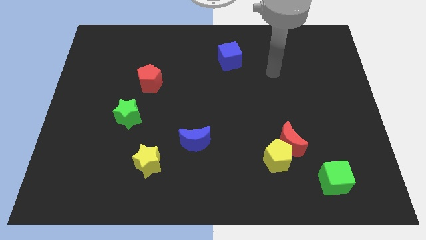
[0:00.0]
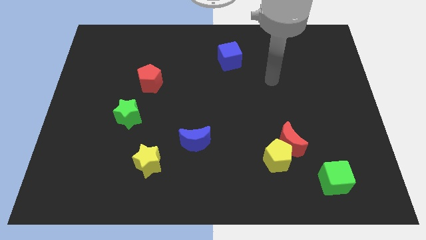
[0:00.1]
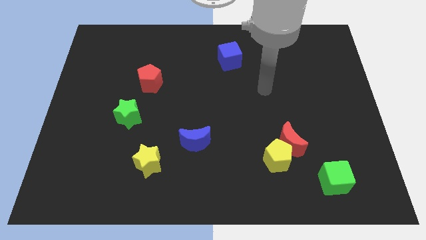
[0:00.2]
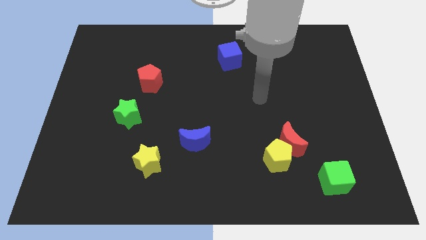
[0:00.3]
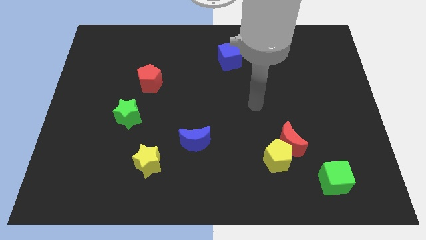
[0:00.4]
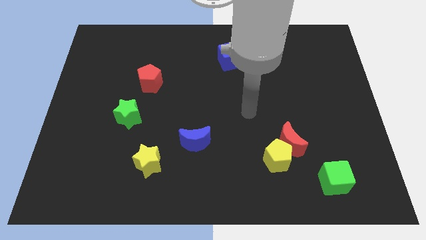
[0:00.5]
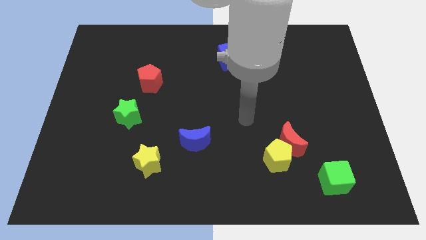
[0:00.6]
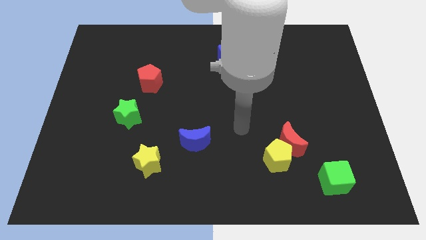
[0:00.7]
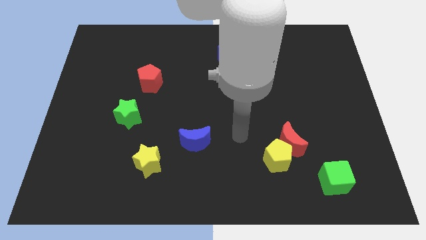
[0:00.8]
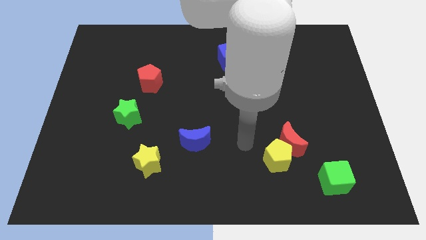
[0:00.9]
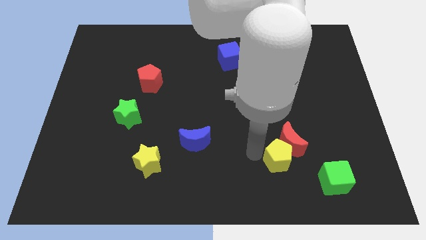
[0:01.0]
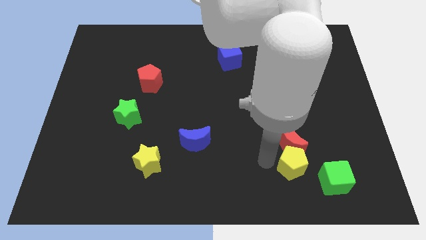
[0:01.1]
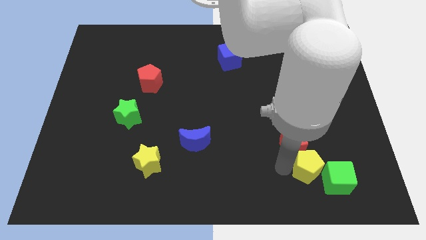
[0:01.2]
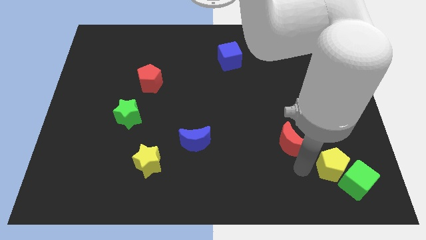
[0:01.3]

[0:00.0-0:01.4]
move the red moon away from the yellow pentagon

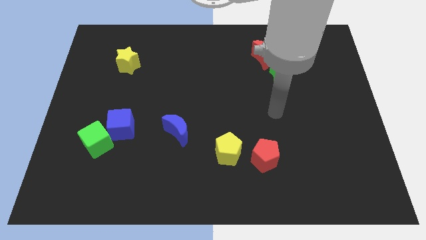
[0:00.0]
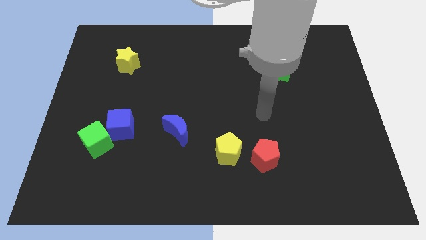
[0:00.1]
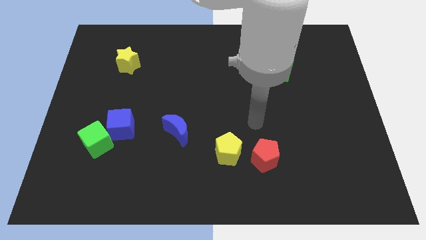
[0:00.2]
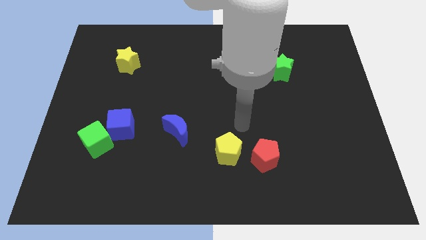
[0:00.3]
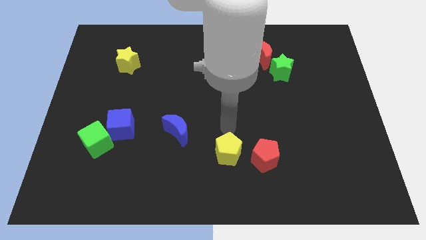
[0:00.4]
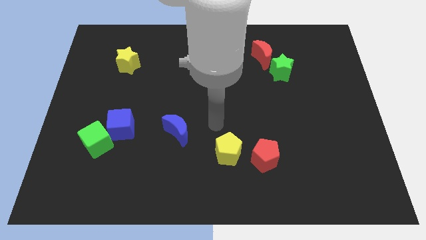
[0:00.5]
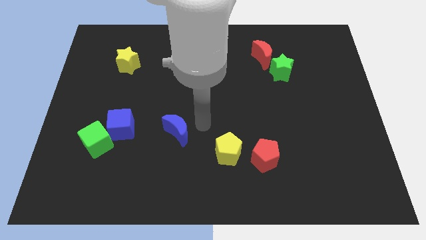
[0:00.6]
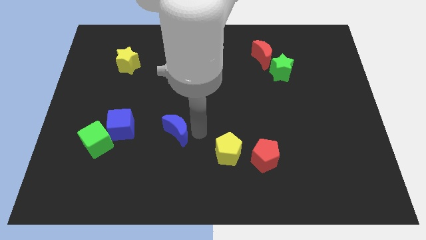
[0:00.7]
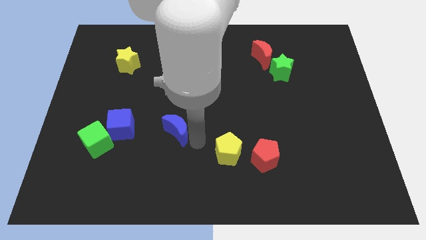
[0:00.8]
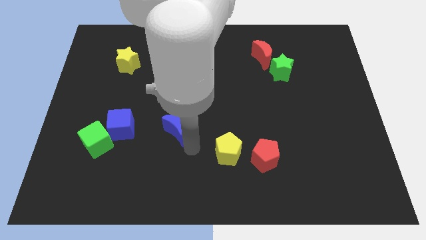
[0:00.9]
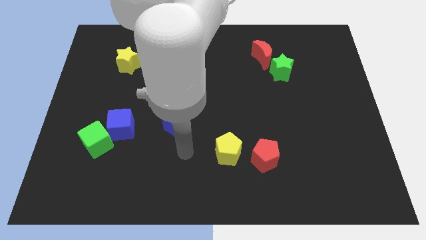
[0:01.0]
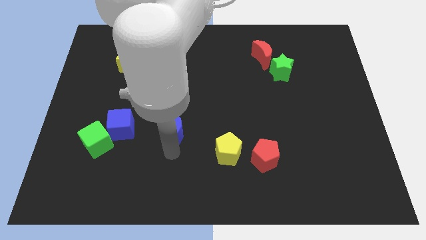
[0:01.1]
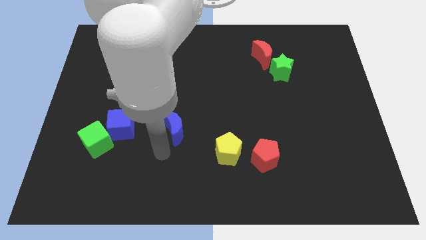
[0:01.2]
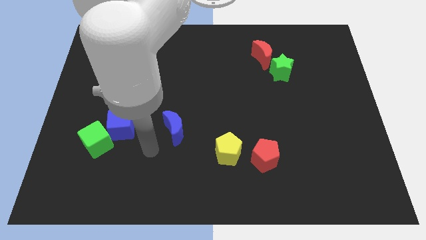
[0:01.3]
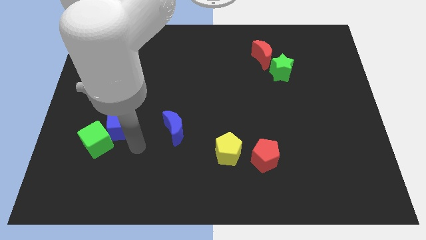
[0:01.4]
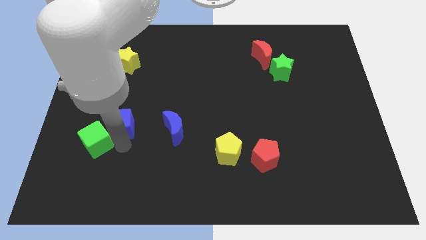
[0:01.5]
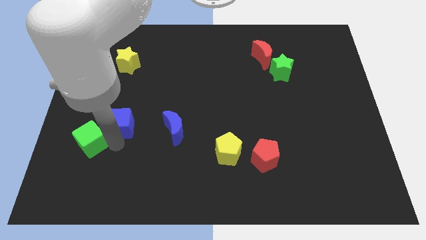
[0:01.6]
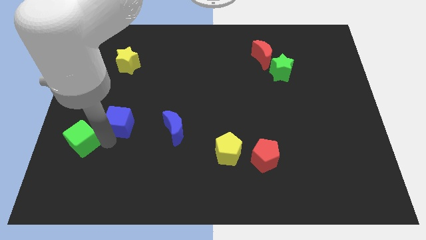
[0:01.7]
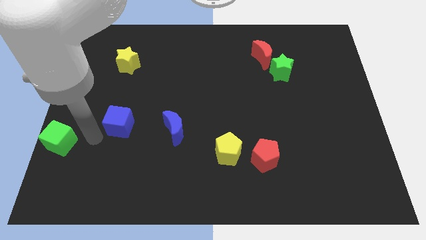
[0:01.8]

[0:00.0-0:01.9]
pull the blue cube apart from the green cube

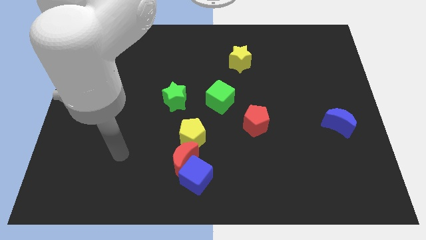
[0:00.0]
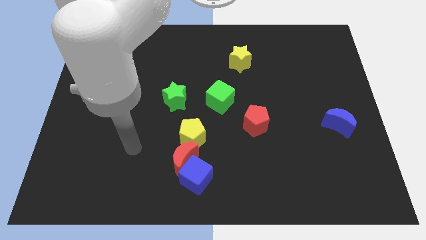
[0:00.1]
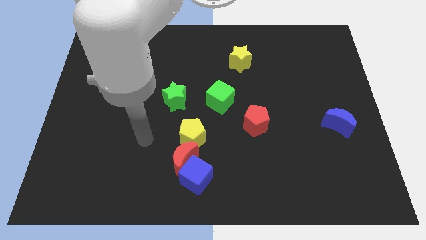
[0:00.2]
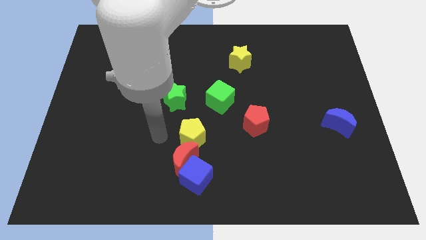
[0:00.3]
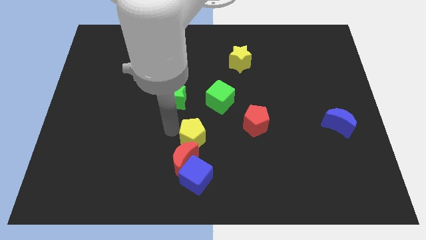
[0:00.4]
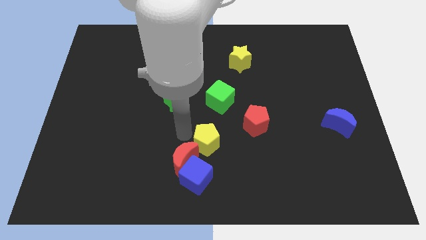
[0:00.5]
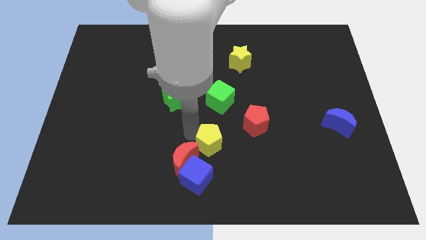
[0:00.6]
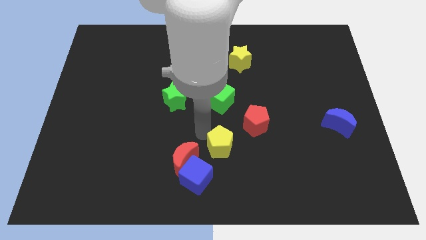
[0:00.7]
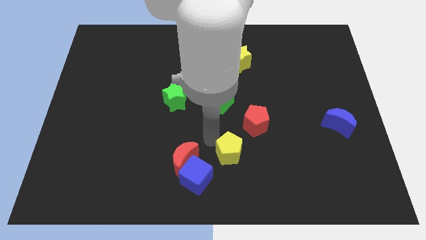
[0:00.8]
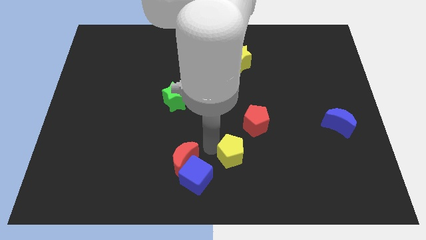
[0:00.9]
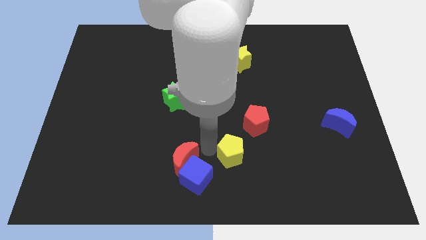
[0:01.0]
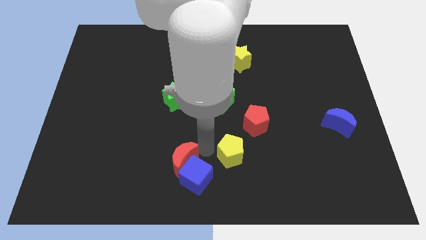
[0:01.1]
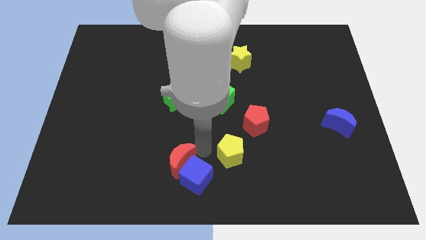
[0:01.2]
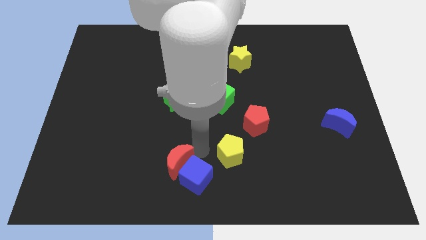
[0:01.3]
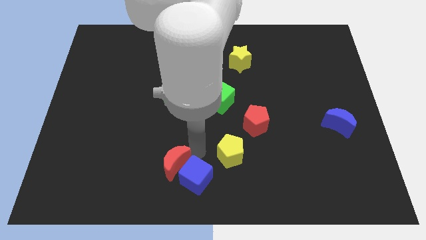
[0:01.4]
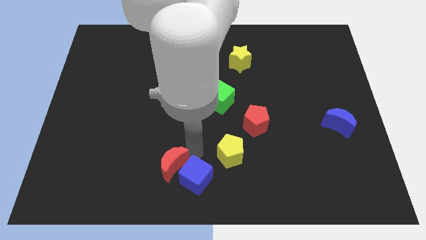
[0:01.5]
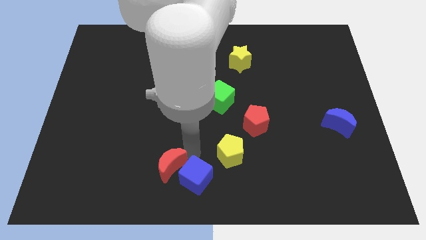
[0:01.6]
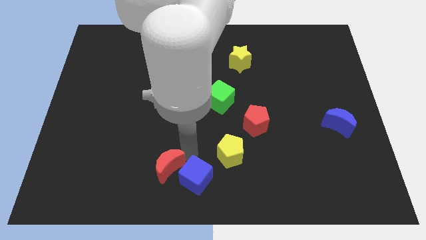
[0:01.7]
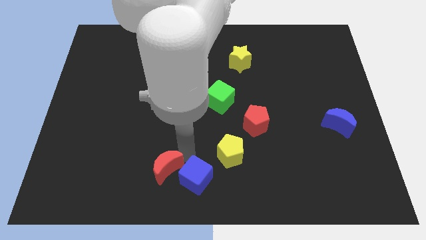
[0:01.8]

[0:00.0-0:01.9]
move the red moon away from the blue cube and yellow pentagon

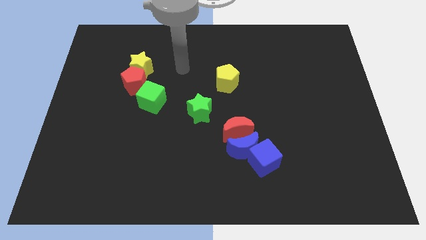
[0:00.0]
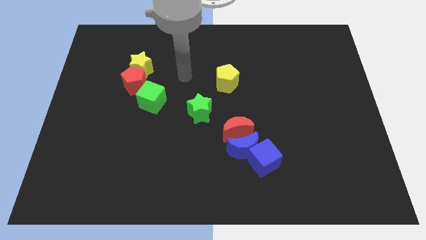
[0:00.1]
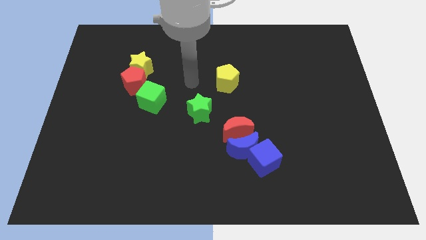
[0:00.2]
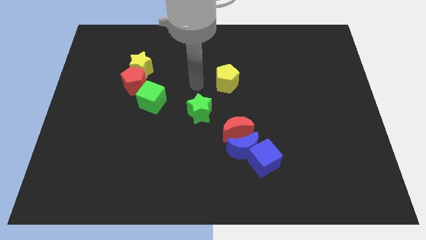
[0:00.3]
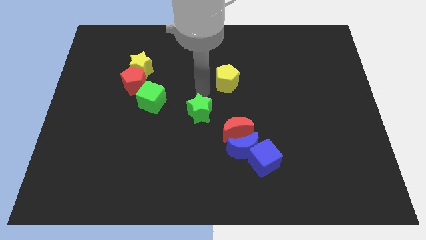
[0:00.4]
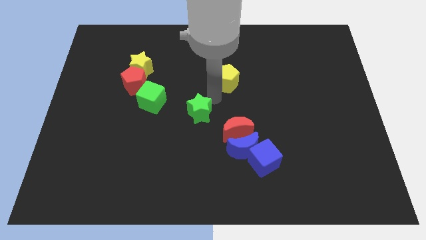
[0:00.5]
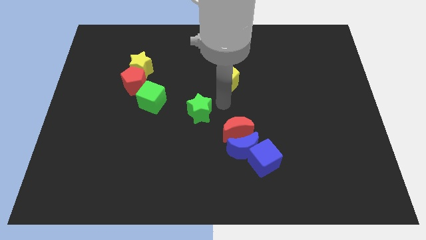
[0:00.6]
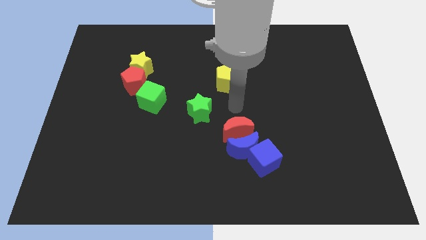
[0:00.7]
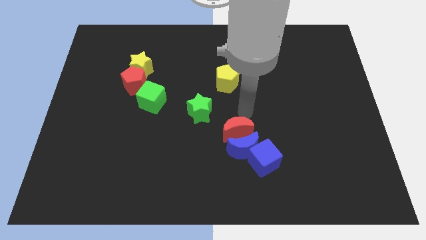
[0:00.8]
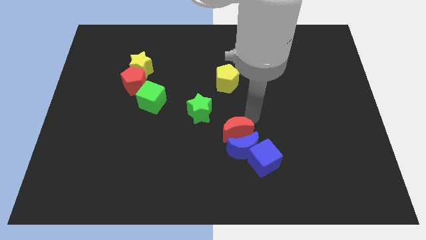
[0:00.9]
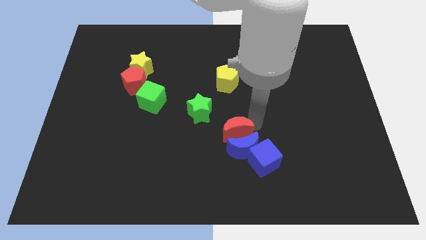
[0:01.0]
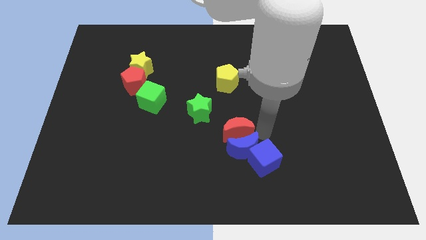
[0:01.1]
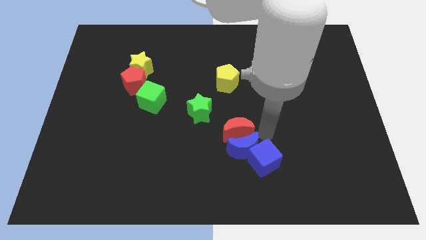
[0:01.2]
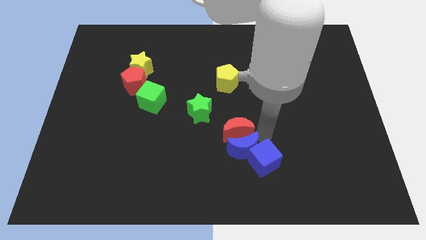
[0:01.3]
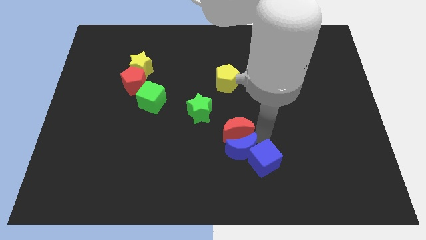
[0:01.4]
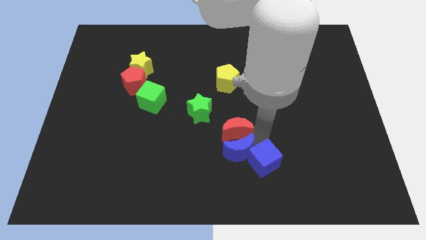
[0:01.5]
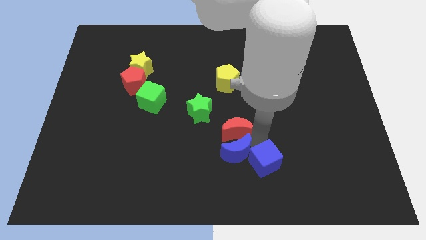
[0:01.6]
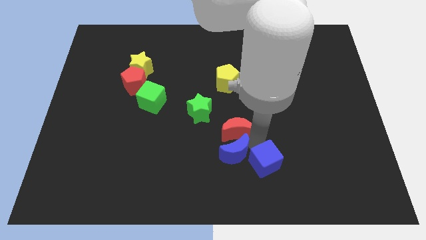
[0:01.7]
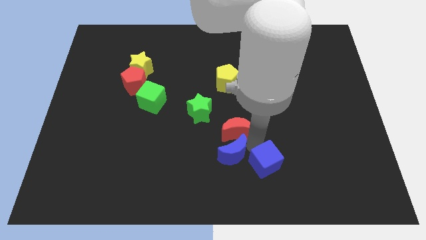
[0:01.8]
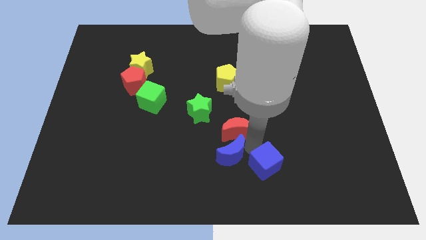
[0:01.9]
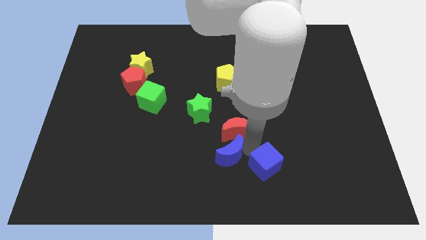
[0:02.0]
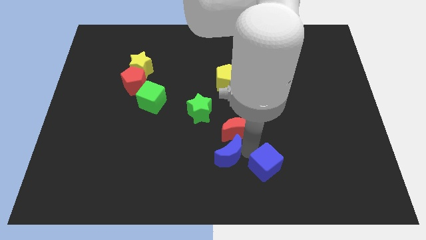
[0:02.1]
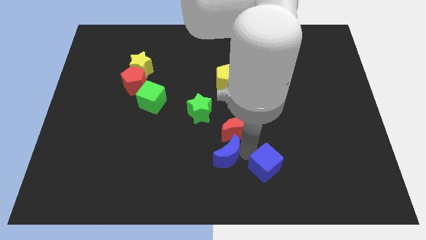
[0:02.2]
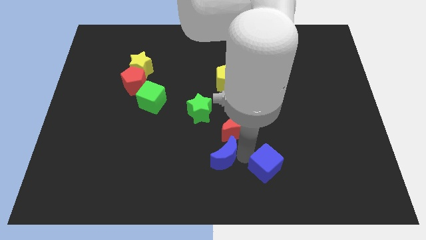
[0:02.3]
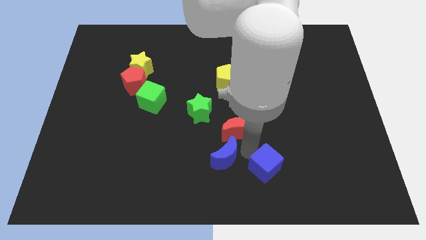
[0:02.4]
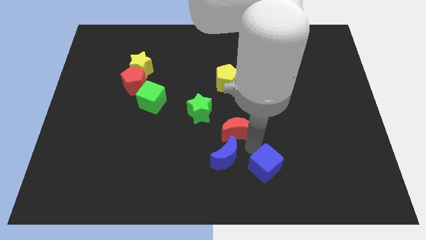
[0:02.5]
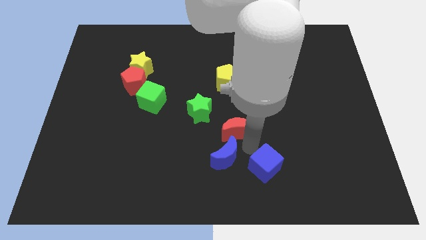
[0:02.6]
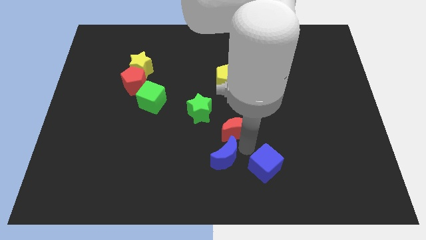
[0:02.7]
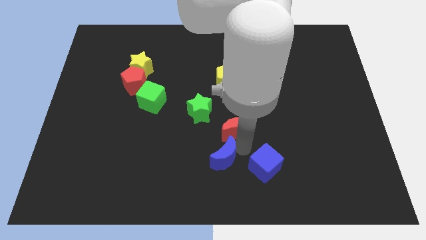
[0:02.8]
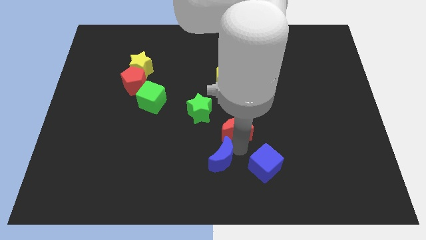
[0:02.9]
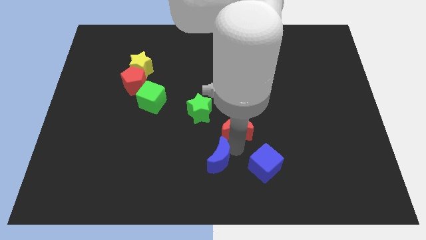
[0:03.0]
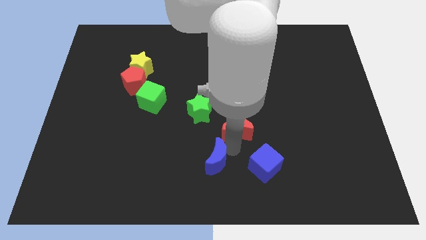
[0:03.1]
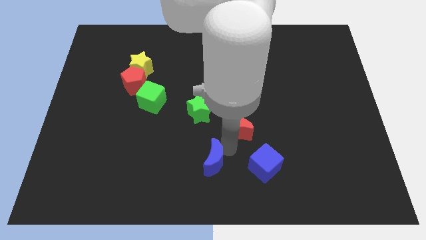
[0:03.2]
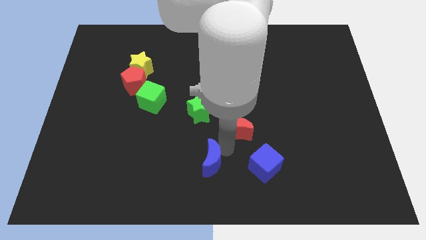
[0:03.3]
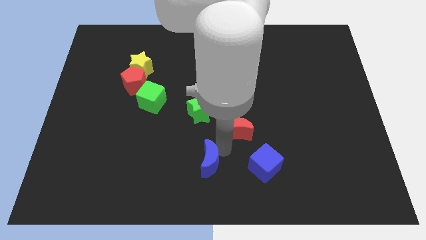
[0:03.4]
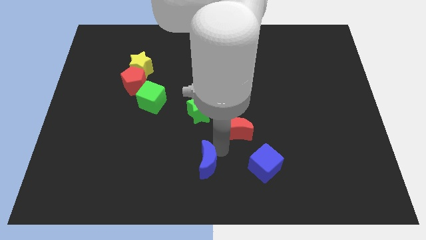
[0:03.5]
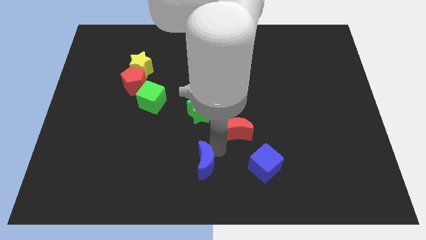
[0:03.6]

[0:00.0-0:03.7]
separate the blue moon from the blue cube and red moon

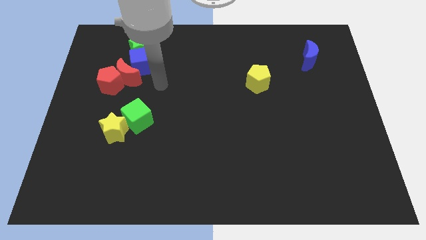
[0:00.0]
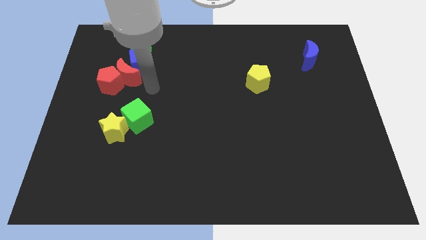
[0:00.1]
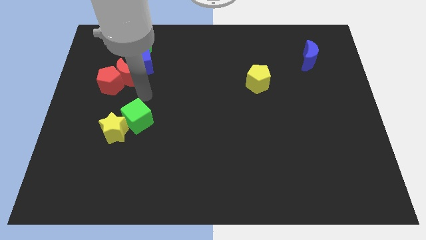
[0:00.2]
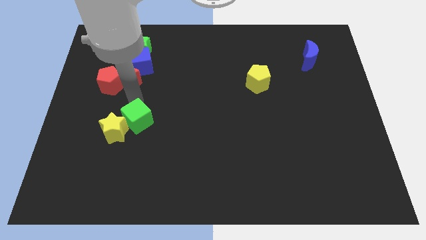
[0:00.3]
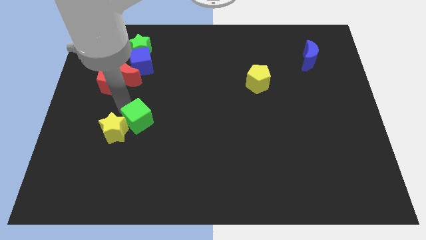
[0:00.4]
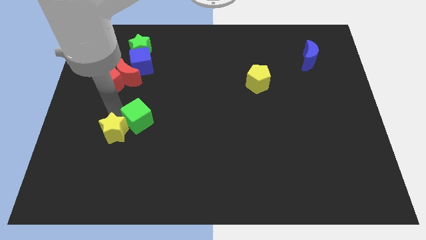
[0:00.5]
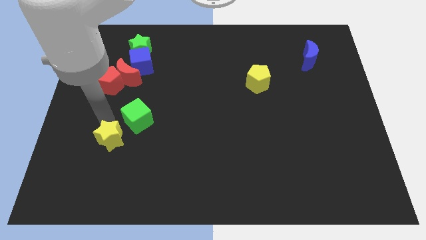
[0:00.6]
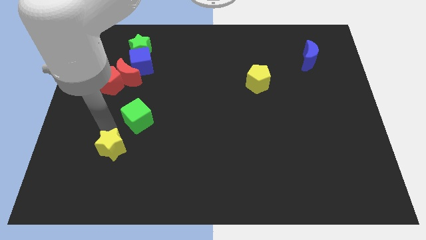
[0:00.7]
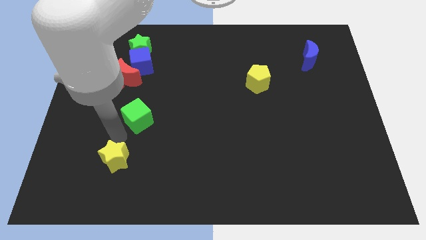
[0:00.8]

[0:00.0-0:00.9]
separate the green cube from the yellow star
